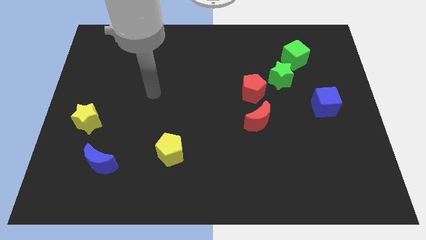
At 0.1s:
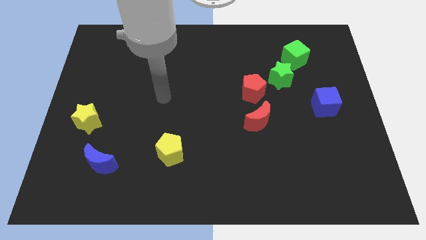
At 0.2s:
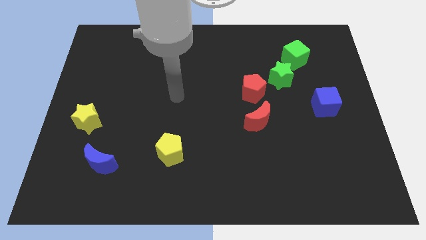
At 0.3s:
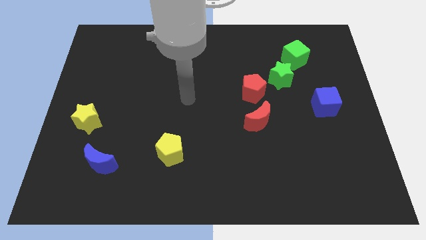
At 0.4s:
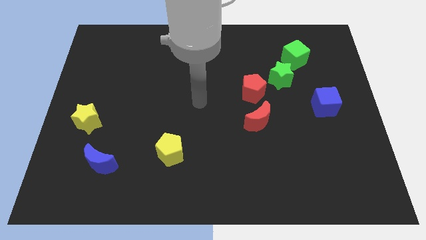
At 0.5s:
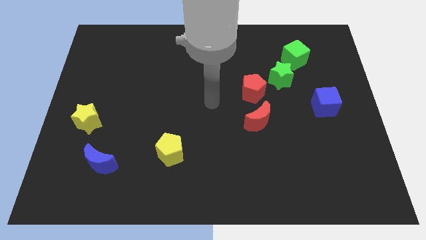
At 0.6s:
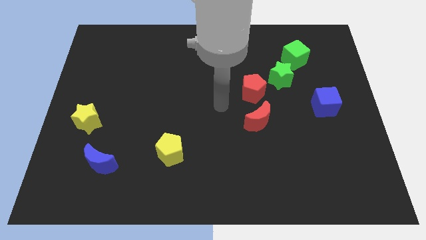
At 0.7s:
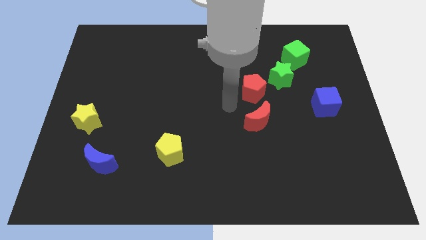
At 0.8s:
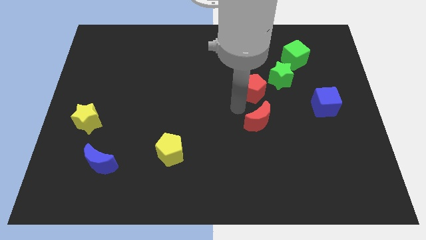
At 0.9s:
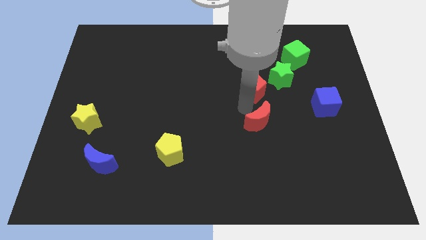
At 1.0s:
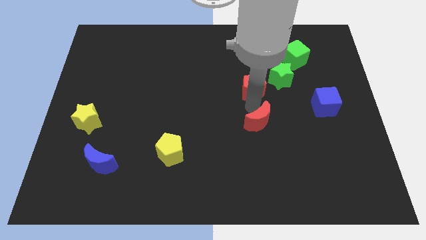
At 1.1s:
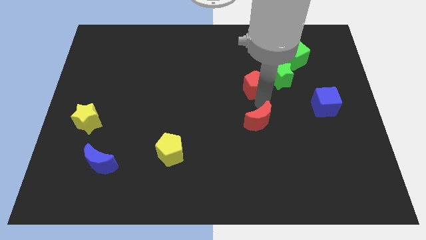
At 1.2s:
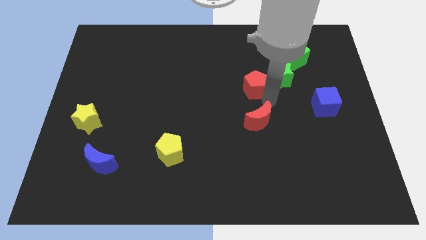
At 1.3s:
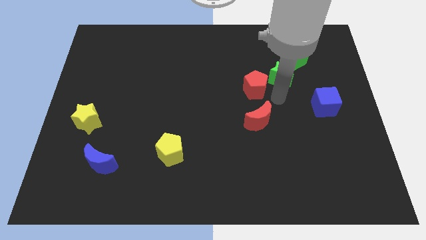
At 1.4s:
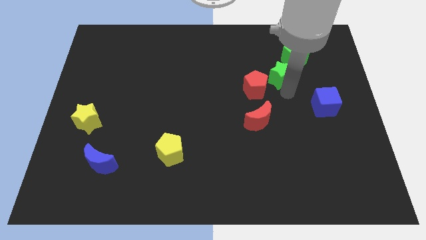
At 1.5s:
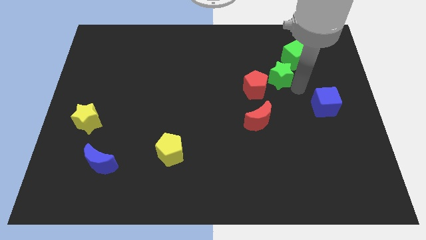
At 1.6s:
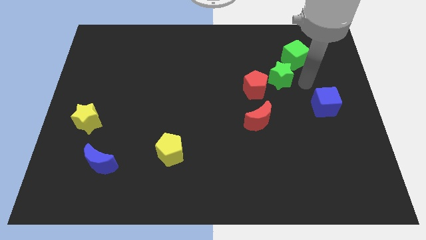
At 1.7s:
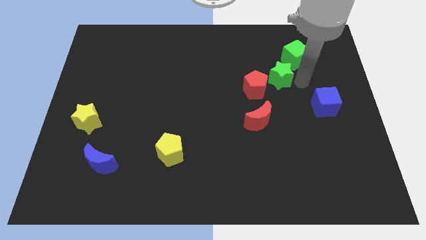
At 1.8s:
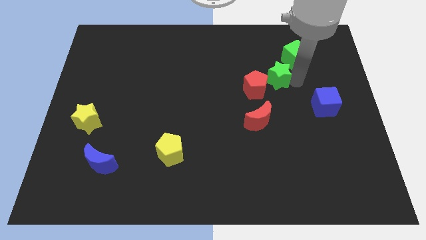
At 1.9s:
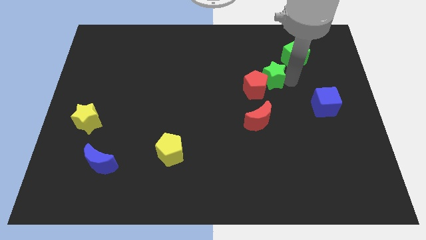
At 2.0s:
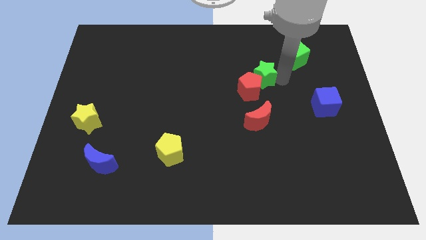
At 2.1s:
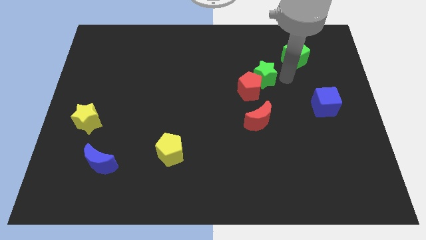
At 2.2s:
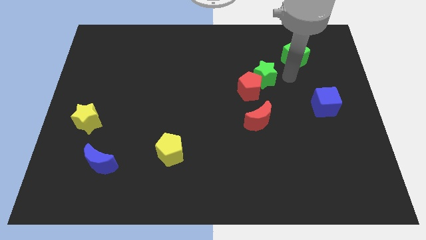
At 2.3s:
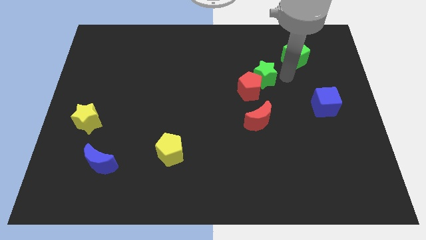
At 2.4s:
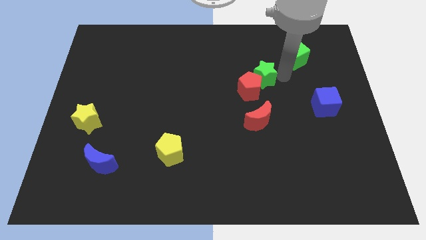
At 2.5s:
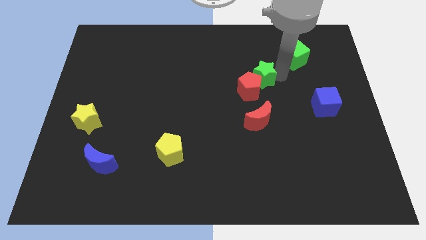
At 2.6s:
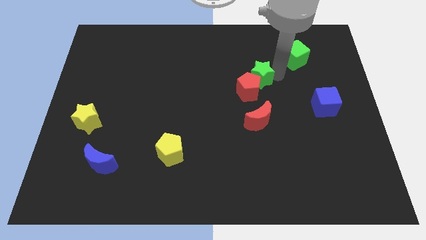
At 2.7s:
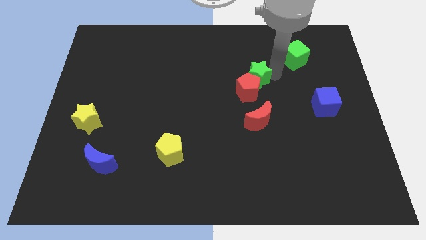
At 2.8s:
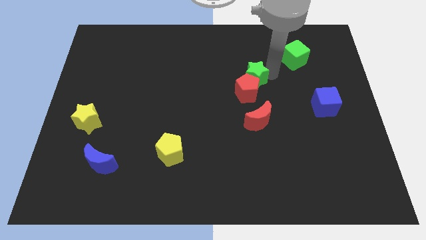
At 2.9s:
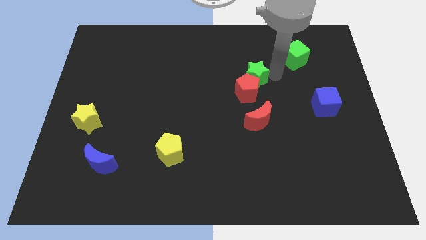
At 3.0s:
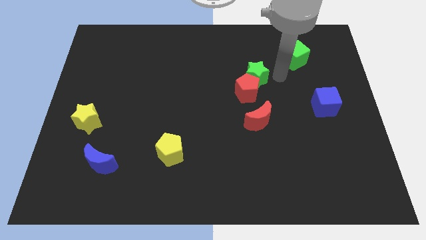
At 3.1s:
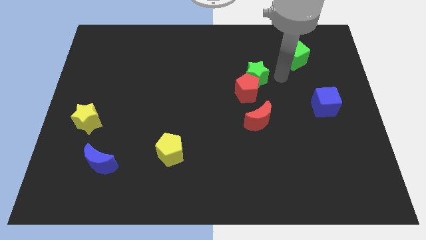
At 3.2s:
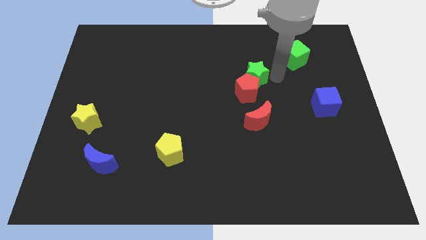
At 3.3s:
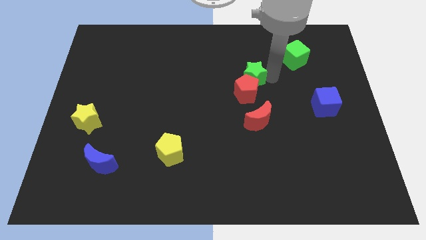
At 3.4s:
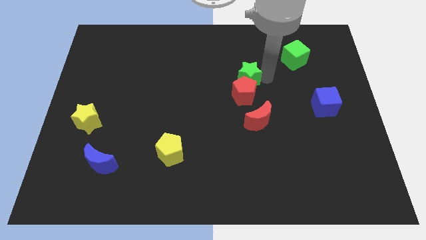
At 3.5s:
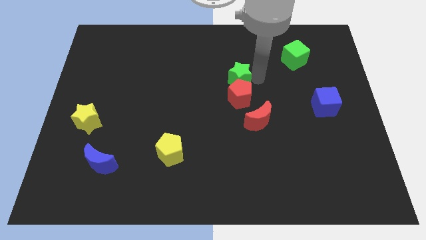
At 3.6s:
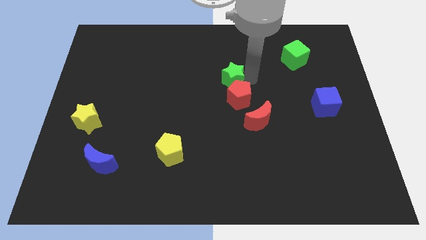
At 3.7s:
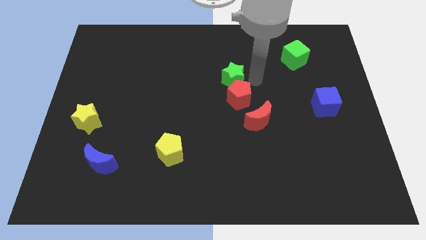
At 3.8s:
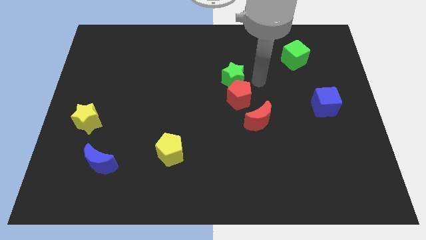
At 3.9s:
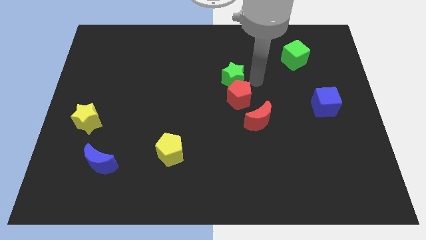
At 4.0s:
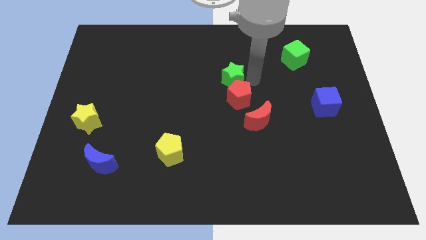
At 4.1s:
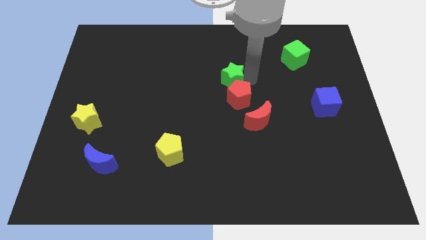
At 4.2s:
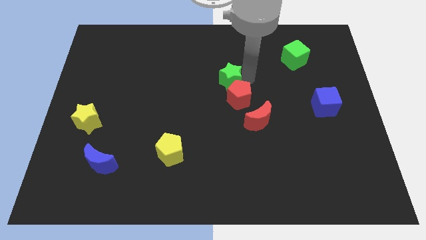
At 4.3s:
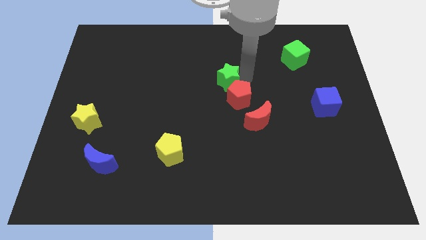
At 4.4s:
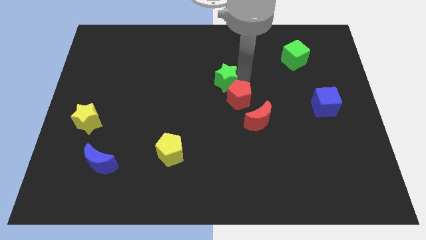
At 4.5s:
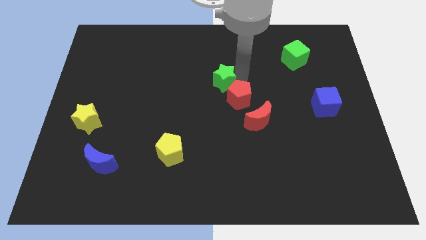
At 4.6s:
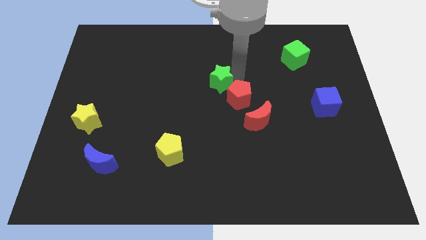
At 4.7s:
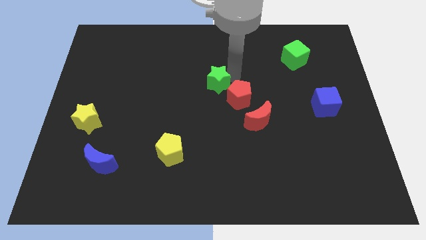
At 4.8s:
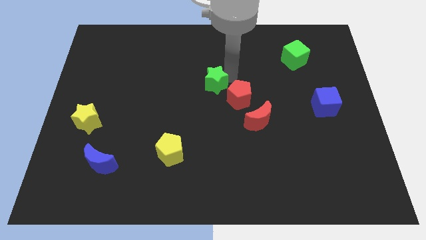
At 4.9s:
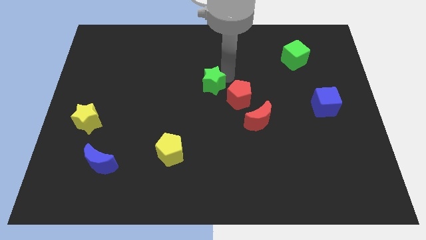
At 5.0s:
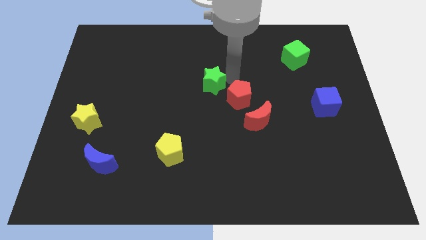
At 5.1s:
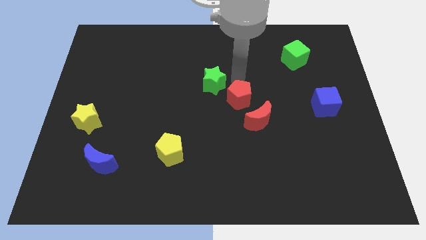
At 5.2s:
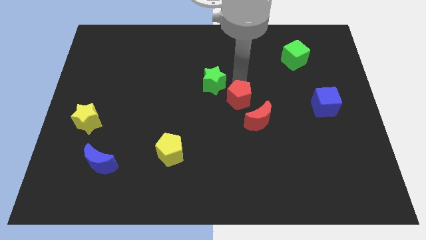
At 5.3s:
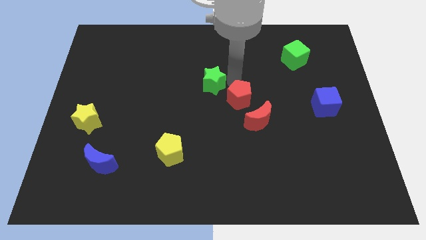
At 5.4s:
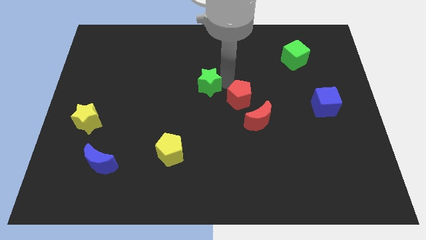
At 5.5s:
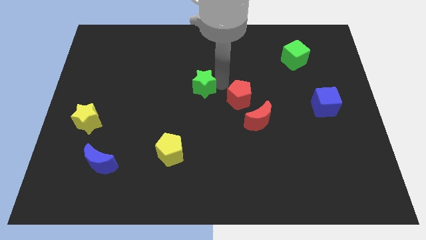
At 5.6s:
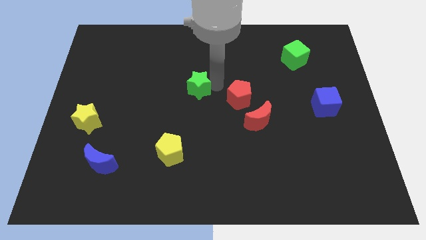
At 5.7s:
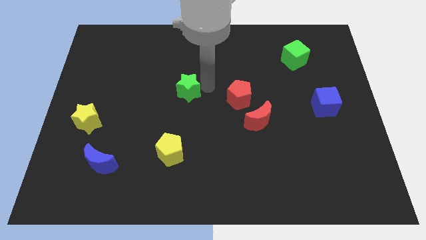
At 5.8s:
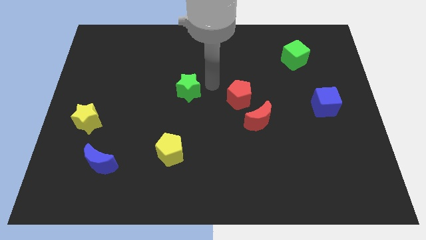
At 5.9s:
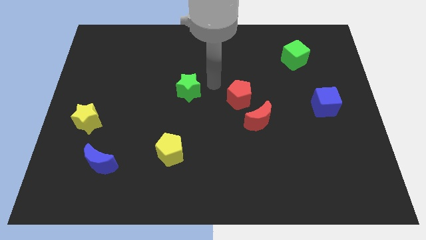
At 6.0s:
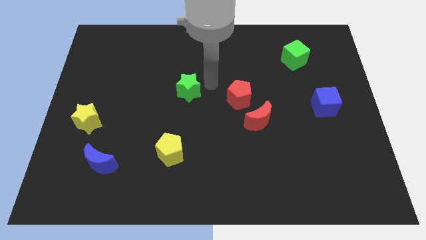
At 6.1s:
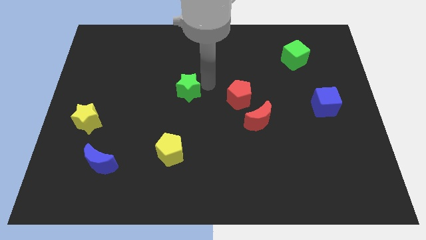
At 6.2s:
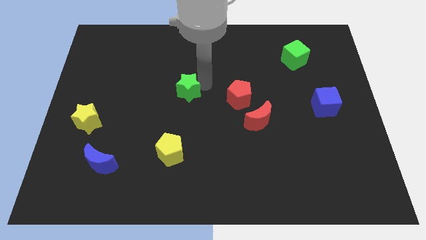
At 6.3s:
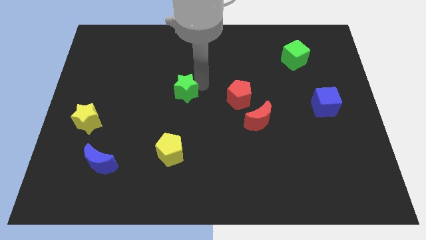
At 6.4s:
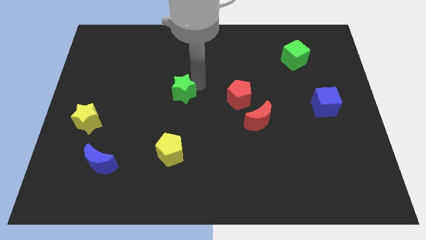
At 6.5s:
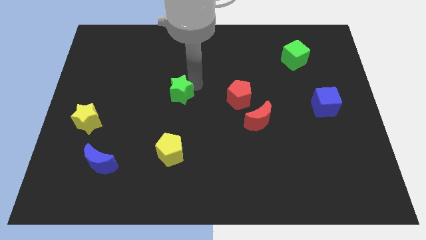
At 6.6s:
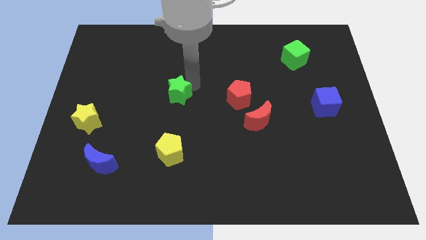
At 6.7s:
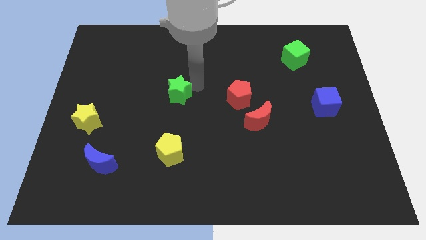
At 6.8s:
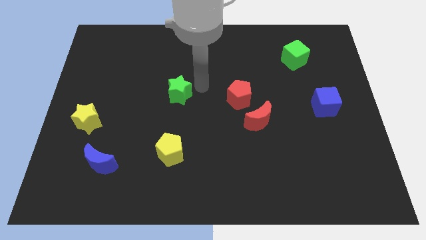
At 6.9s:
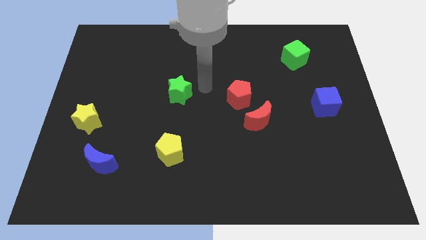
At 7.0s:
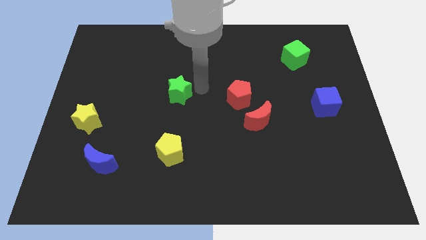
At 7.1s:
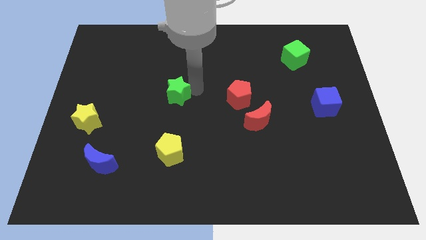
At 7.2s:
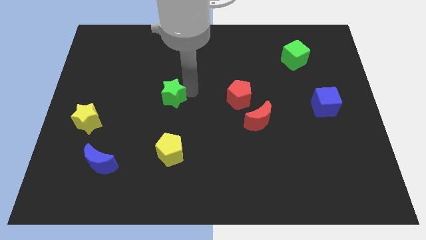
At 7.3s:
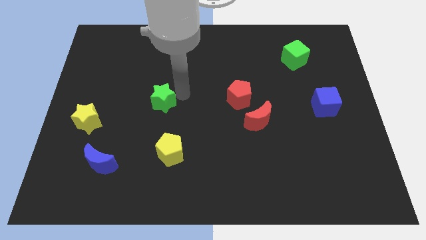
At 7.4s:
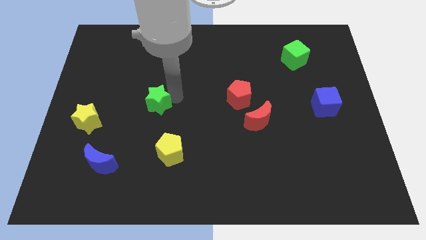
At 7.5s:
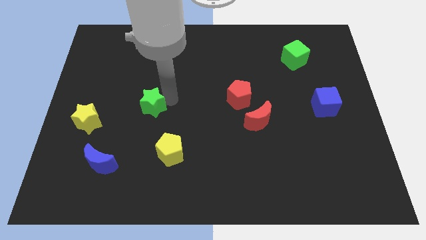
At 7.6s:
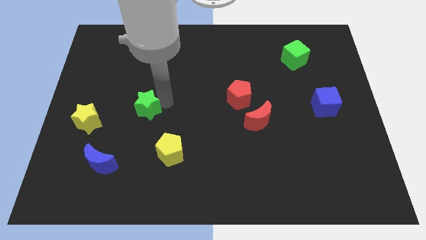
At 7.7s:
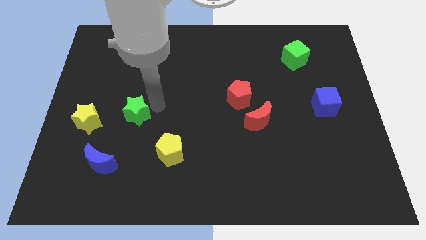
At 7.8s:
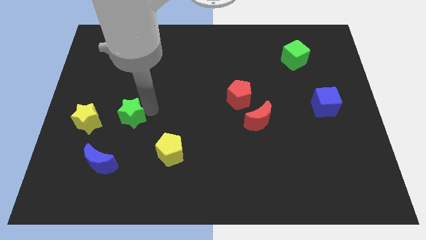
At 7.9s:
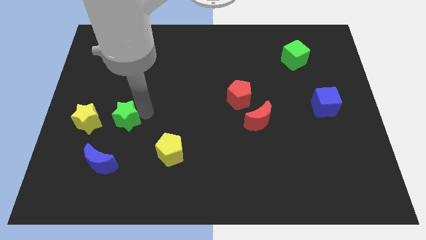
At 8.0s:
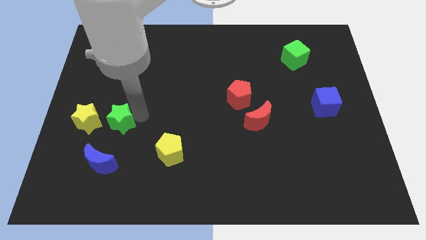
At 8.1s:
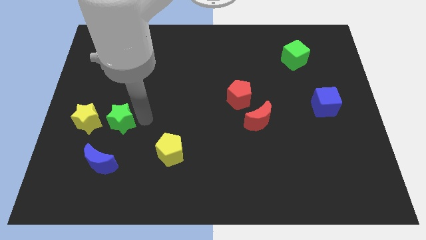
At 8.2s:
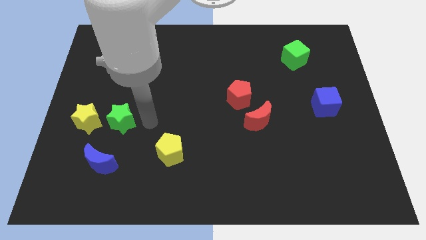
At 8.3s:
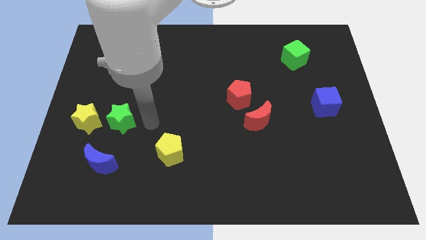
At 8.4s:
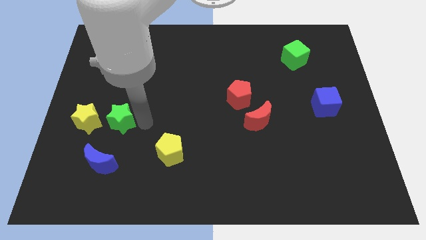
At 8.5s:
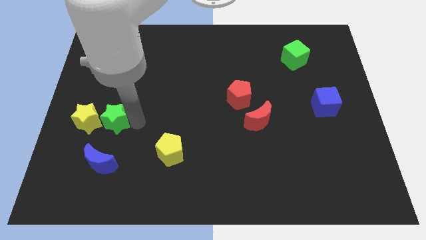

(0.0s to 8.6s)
slide the green star towards the yellow star
